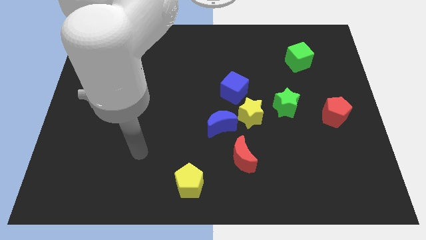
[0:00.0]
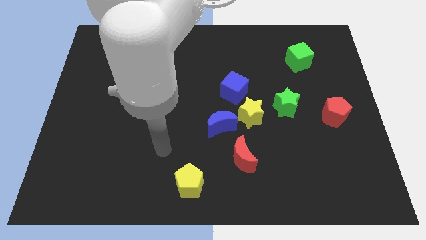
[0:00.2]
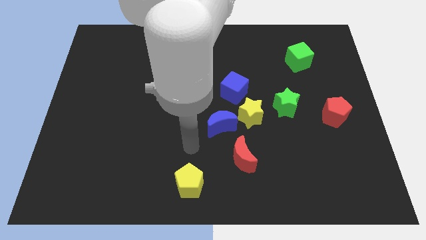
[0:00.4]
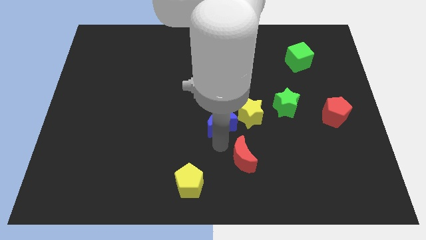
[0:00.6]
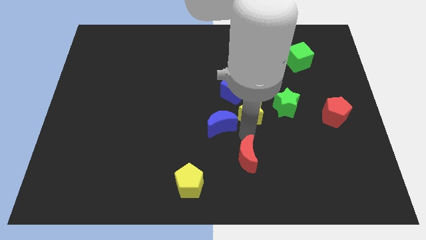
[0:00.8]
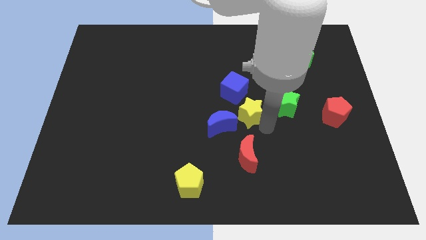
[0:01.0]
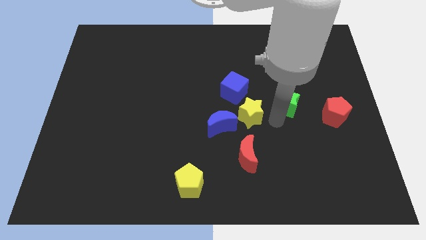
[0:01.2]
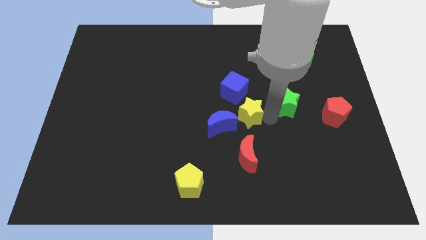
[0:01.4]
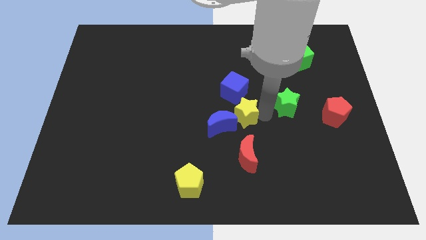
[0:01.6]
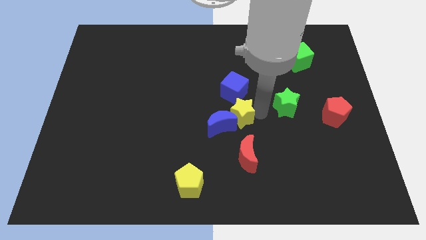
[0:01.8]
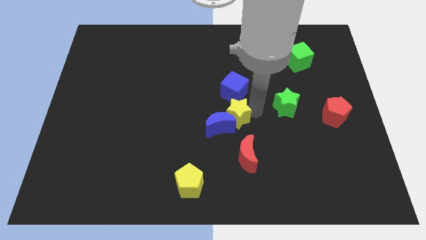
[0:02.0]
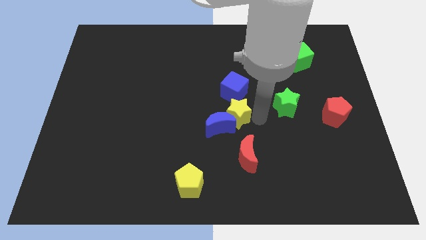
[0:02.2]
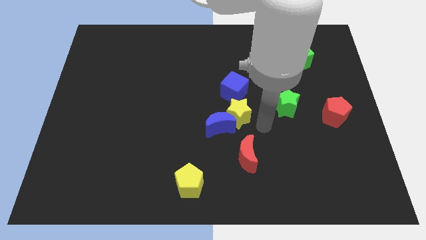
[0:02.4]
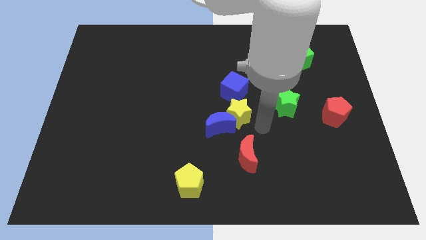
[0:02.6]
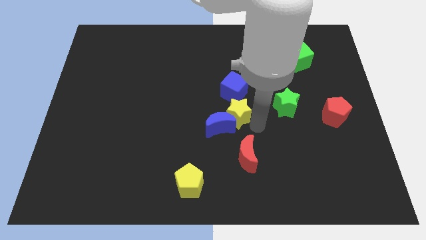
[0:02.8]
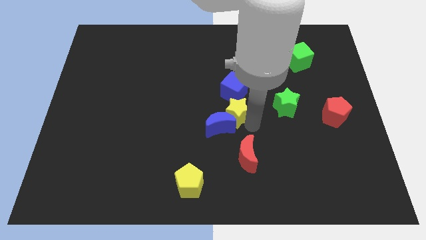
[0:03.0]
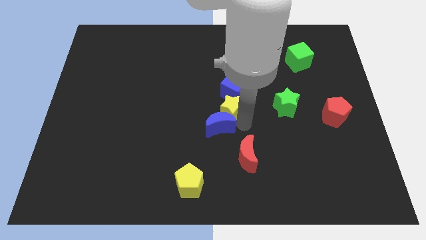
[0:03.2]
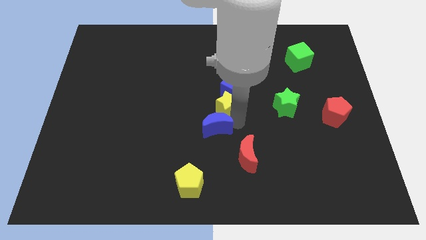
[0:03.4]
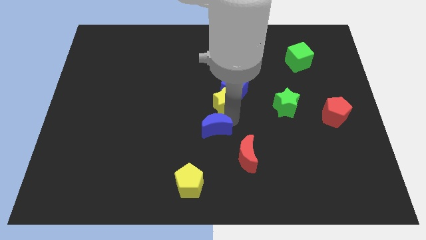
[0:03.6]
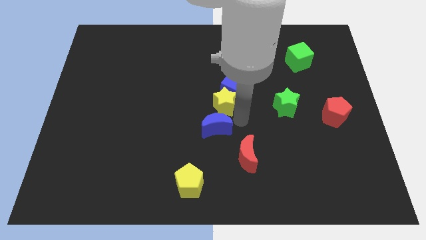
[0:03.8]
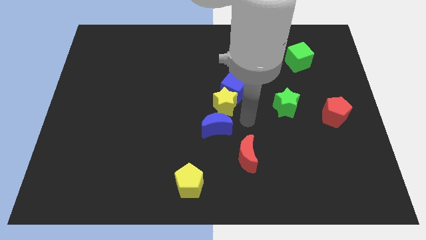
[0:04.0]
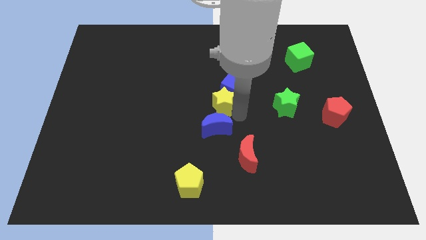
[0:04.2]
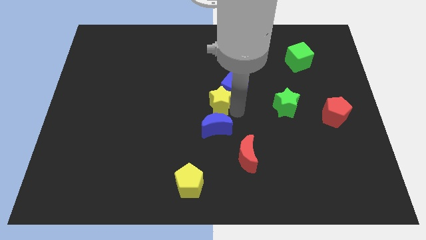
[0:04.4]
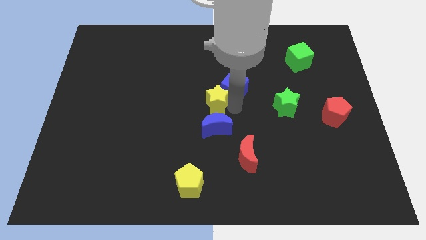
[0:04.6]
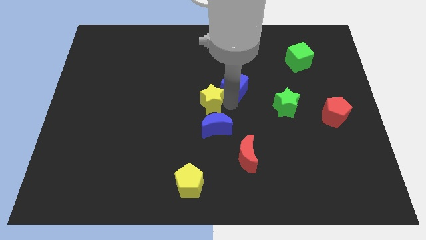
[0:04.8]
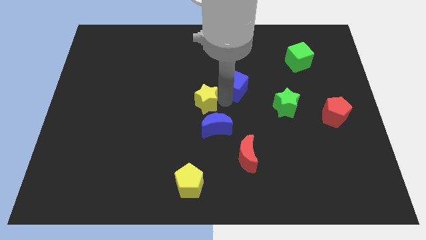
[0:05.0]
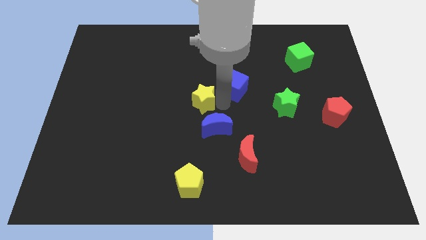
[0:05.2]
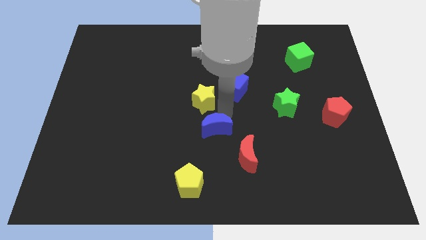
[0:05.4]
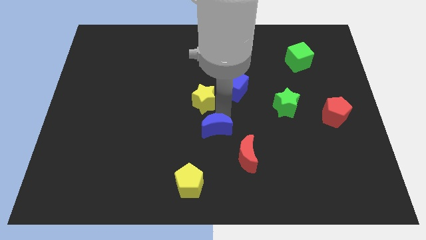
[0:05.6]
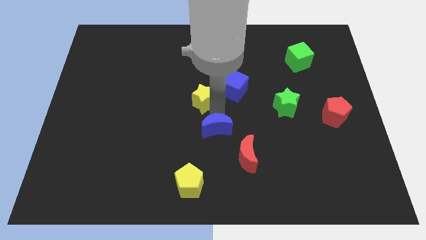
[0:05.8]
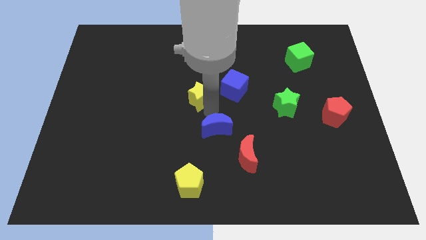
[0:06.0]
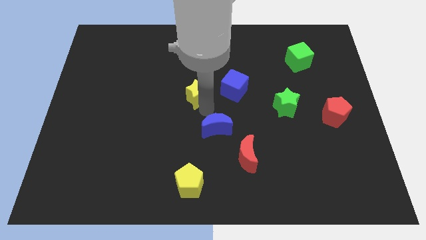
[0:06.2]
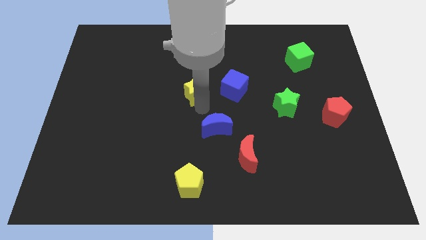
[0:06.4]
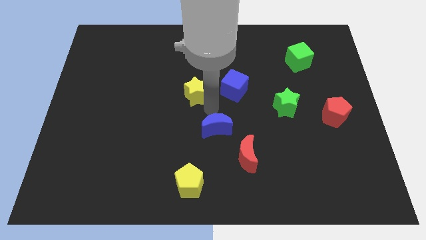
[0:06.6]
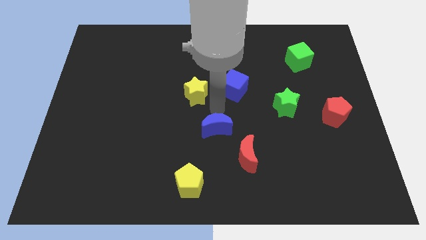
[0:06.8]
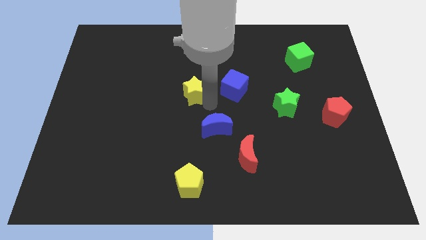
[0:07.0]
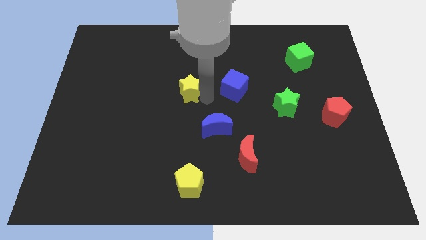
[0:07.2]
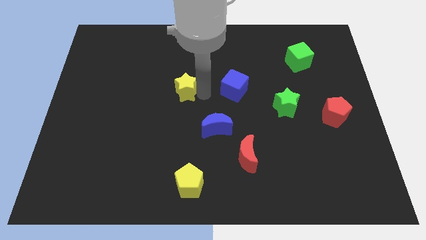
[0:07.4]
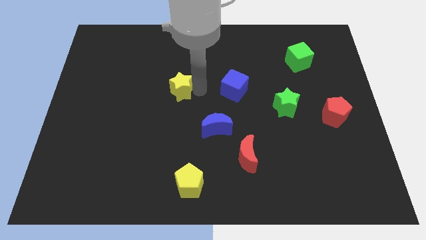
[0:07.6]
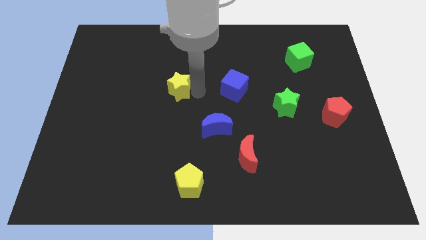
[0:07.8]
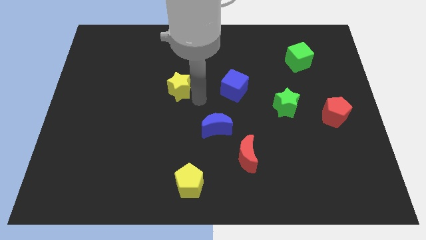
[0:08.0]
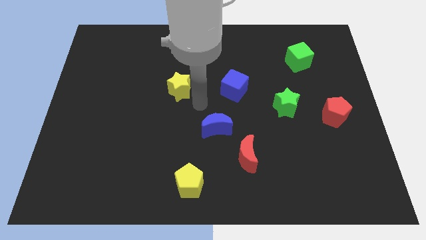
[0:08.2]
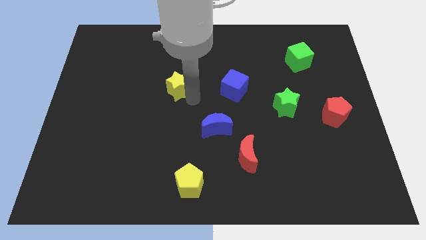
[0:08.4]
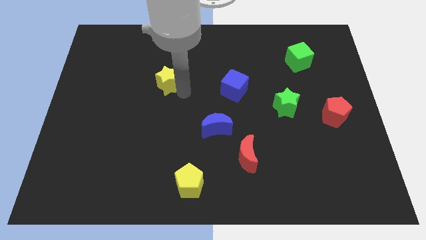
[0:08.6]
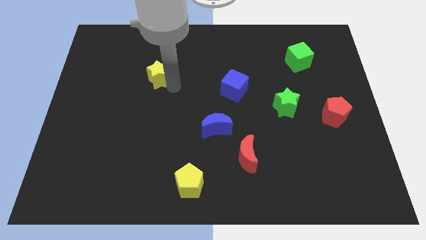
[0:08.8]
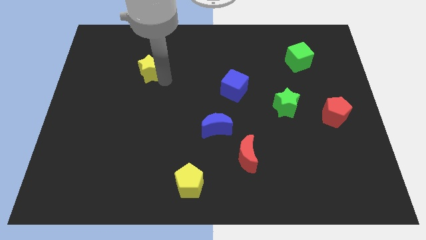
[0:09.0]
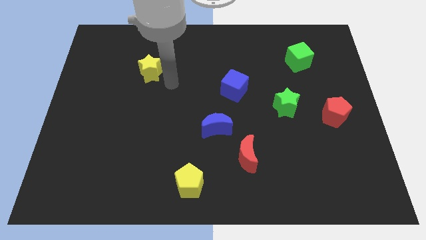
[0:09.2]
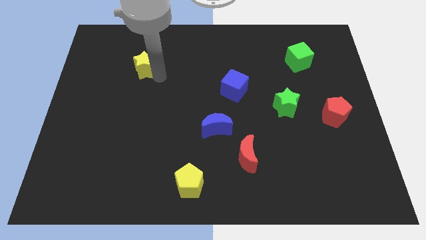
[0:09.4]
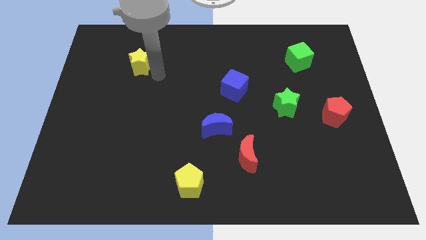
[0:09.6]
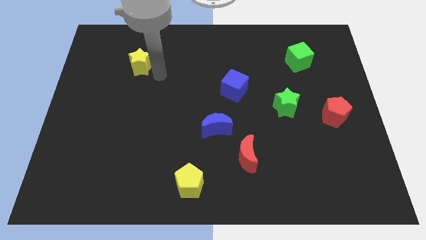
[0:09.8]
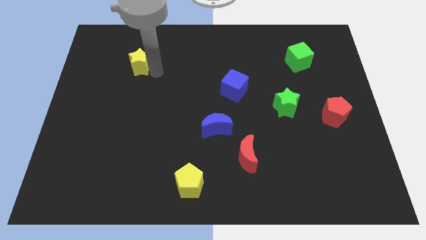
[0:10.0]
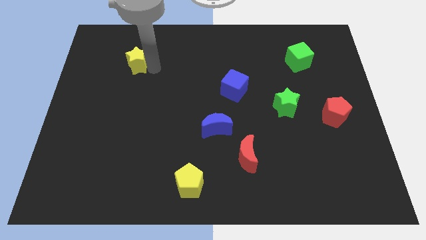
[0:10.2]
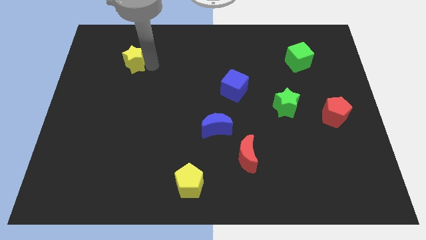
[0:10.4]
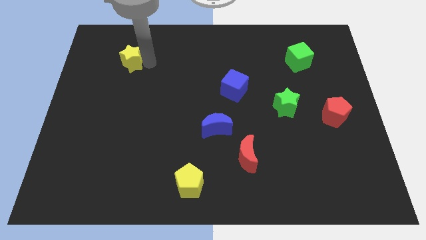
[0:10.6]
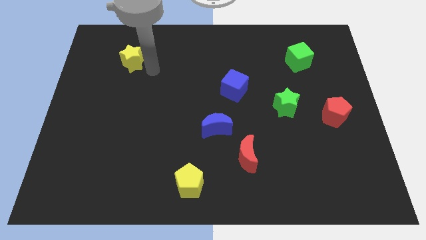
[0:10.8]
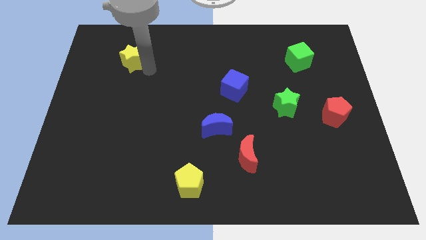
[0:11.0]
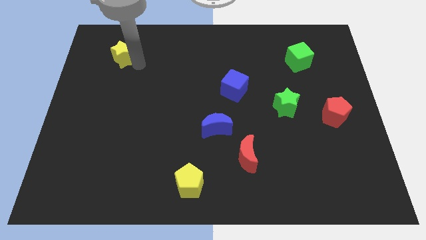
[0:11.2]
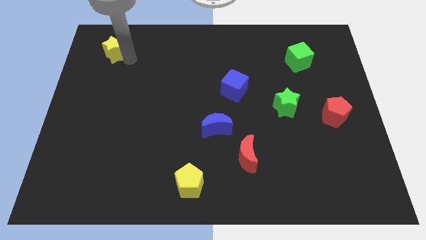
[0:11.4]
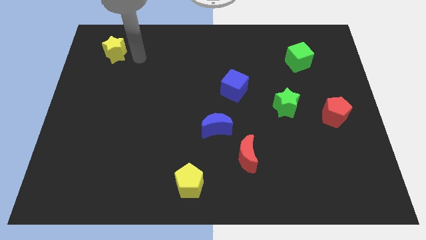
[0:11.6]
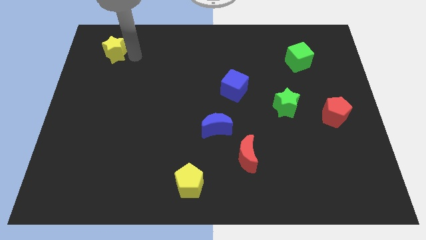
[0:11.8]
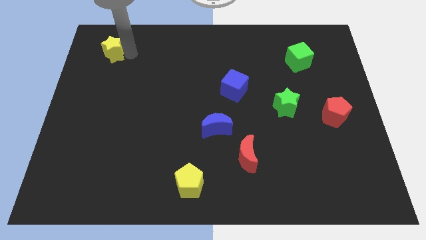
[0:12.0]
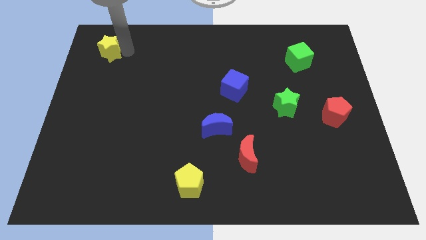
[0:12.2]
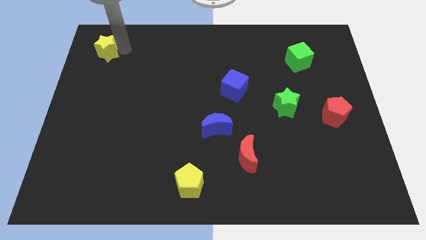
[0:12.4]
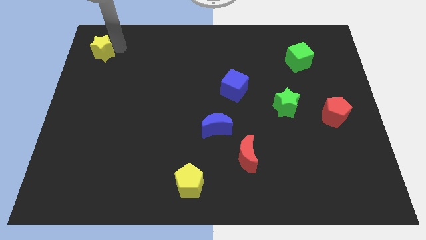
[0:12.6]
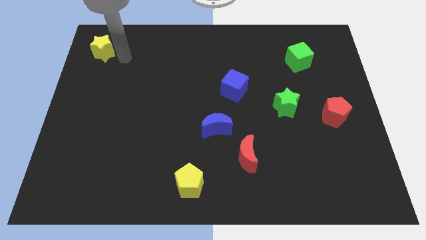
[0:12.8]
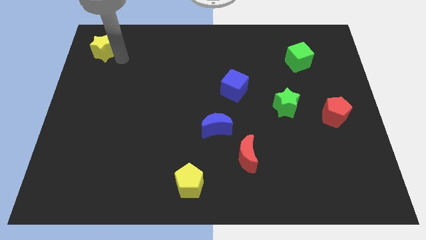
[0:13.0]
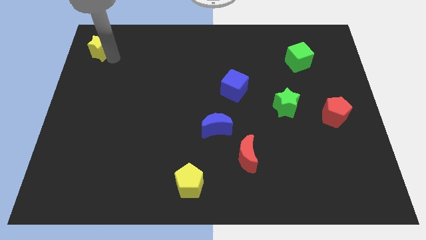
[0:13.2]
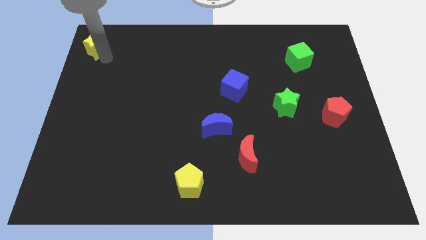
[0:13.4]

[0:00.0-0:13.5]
put the yellow star to the top left of the board

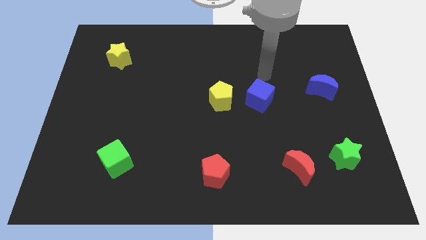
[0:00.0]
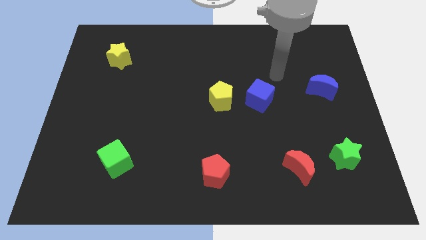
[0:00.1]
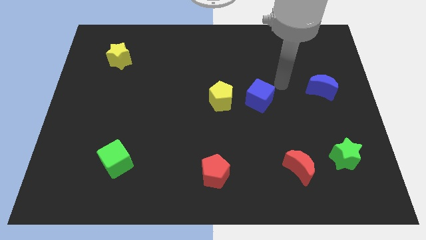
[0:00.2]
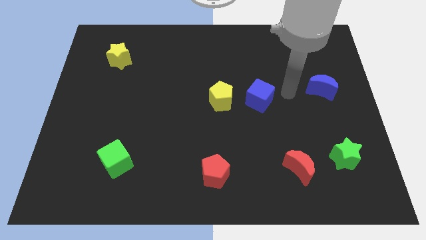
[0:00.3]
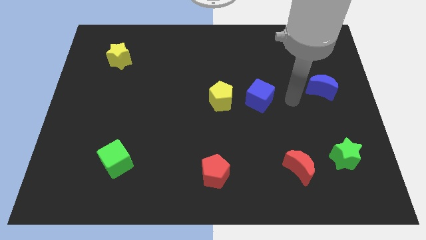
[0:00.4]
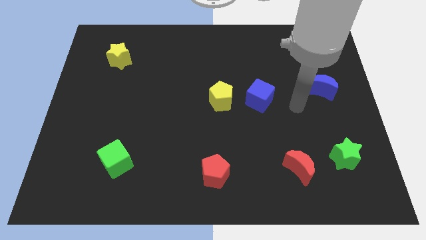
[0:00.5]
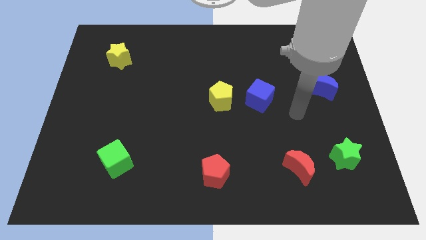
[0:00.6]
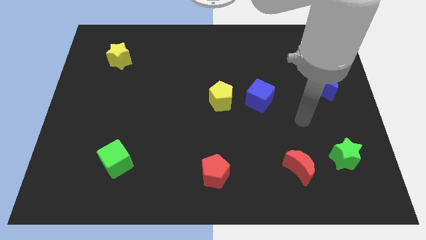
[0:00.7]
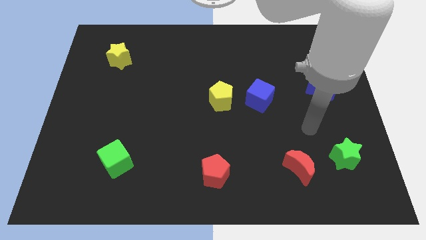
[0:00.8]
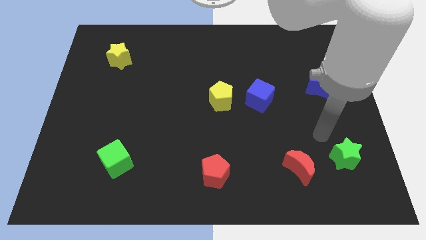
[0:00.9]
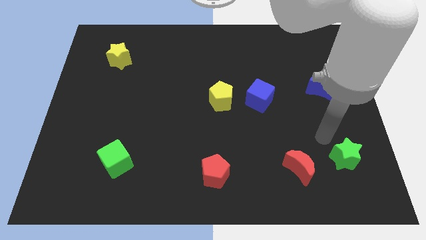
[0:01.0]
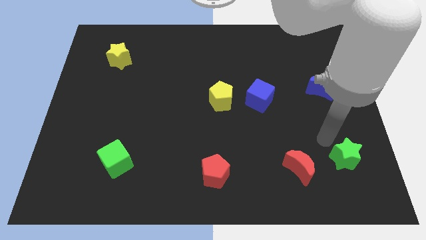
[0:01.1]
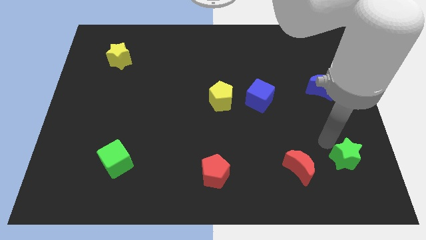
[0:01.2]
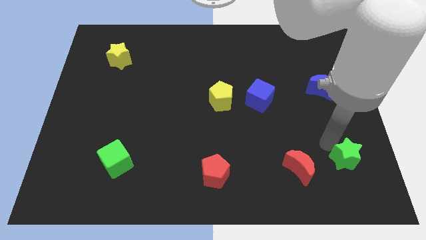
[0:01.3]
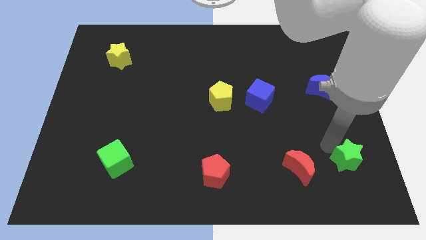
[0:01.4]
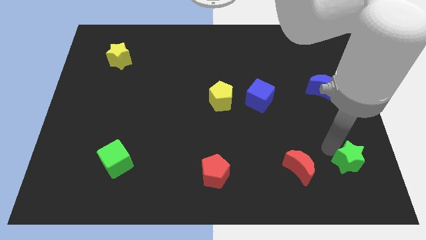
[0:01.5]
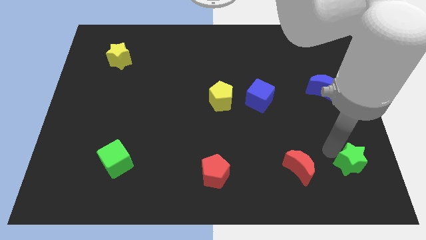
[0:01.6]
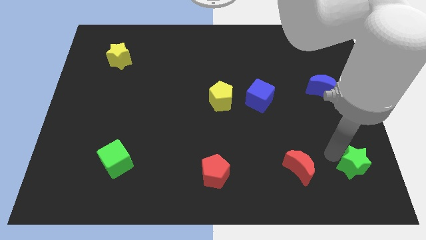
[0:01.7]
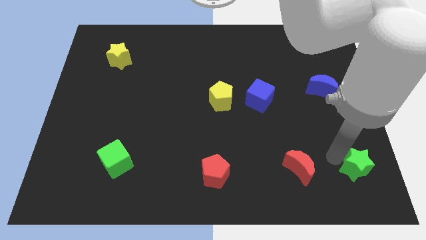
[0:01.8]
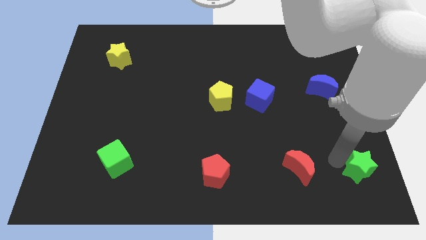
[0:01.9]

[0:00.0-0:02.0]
put the green star to the lower right corner
